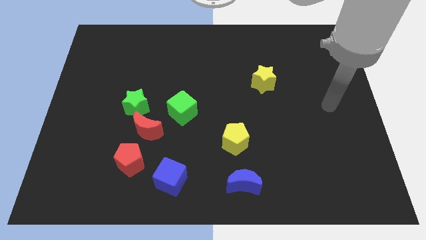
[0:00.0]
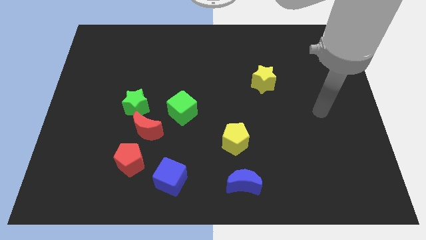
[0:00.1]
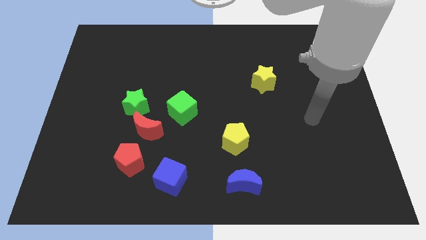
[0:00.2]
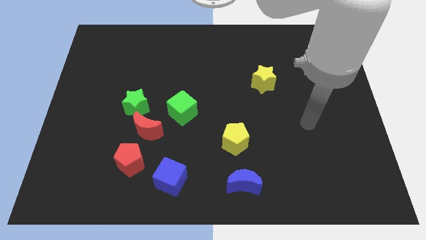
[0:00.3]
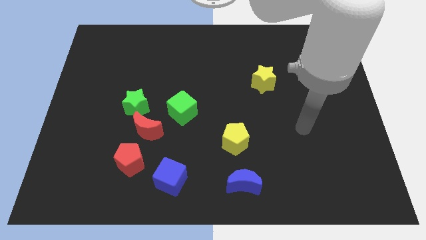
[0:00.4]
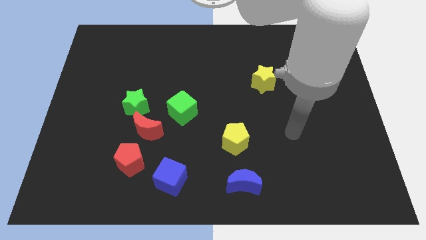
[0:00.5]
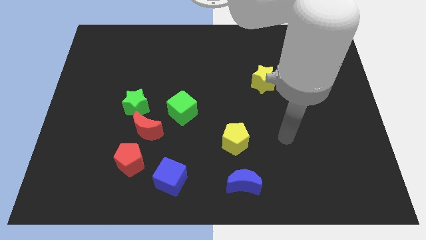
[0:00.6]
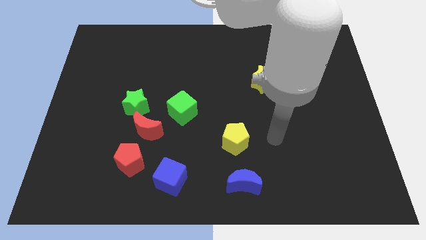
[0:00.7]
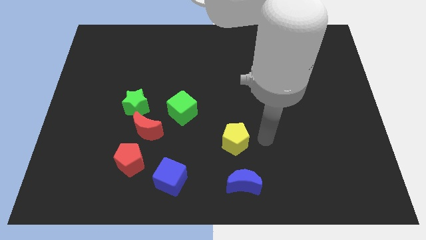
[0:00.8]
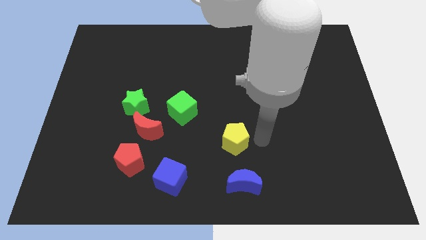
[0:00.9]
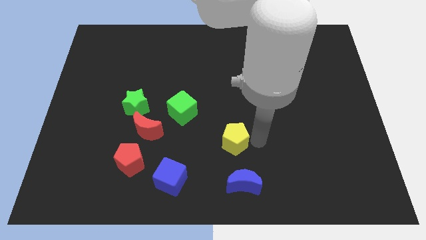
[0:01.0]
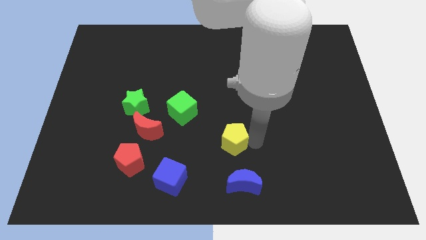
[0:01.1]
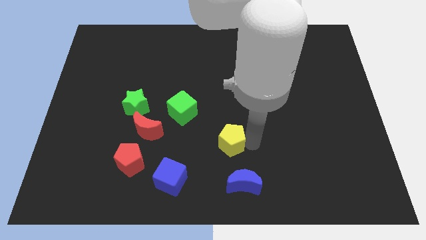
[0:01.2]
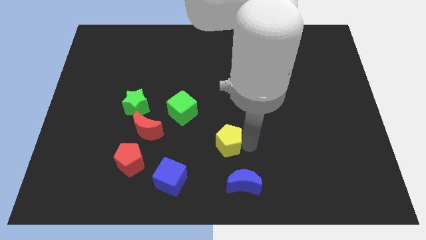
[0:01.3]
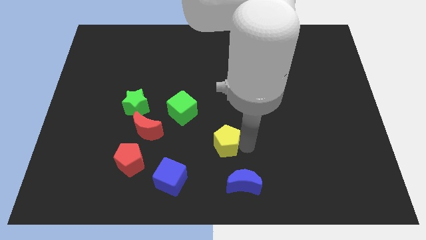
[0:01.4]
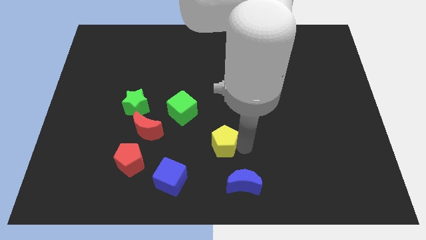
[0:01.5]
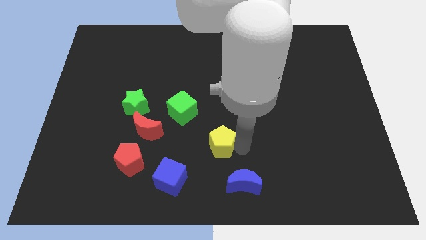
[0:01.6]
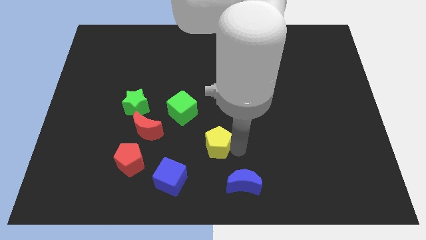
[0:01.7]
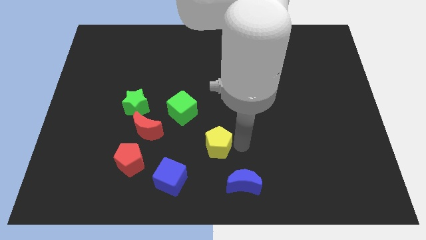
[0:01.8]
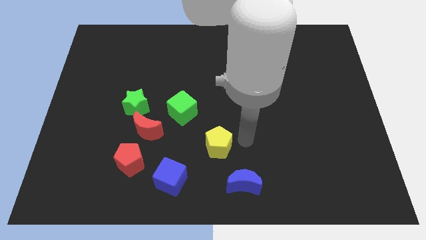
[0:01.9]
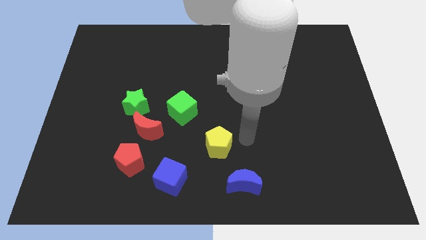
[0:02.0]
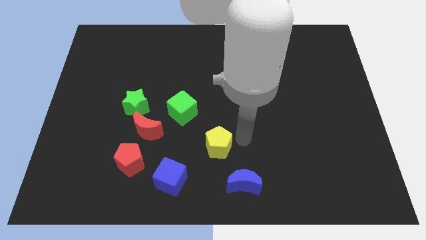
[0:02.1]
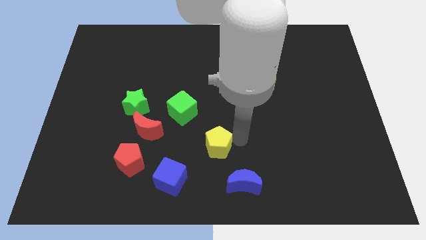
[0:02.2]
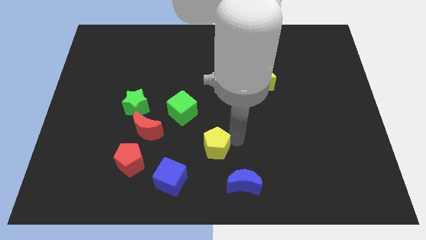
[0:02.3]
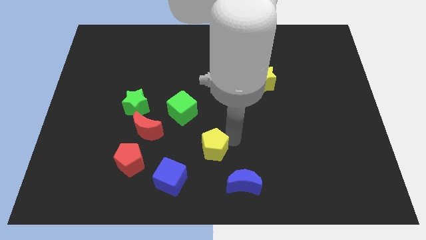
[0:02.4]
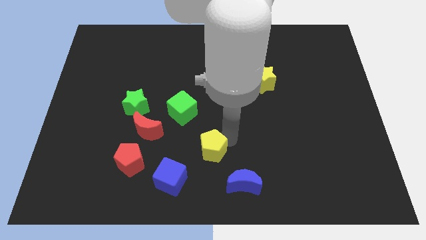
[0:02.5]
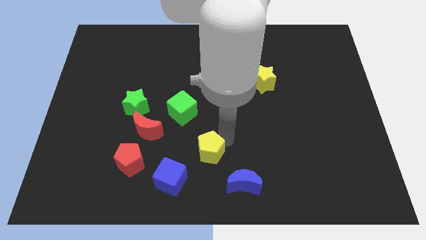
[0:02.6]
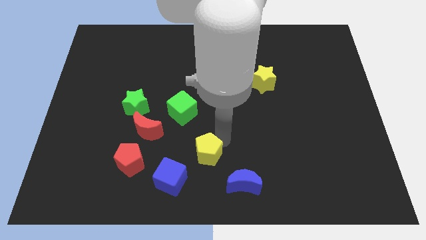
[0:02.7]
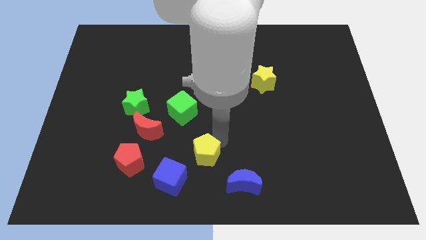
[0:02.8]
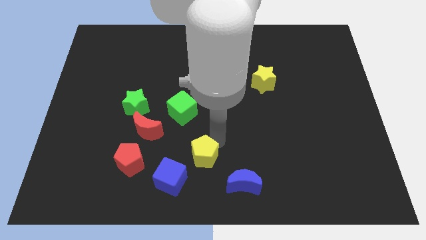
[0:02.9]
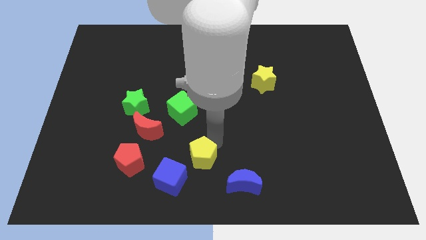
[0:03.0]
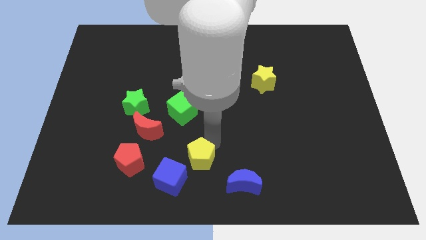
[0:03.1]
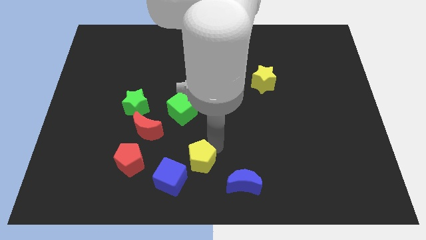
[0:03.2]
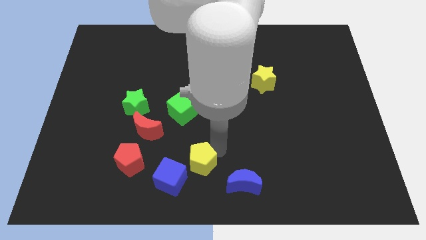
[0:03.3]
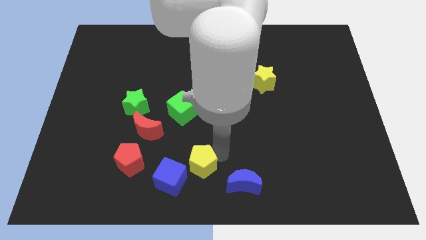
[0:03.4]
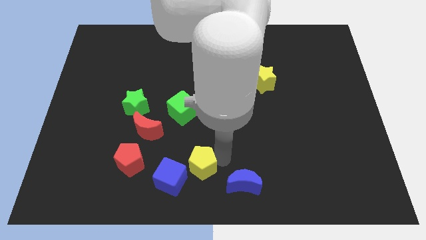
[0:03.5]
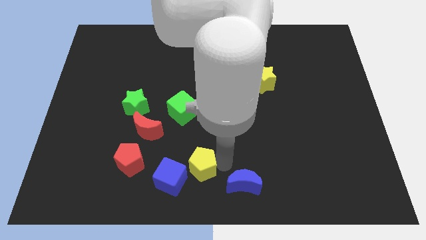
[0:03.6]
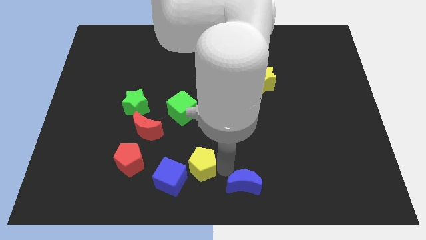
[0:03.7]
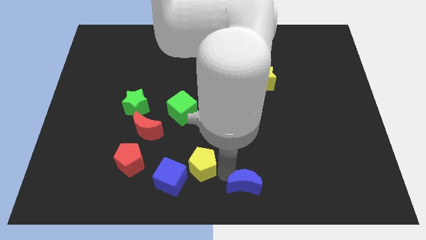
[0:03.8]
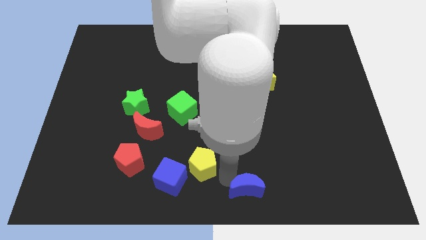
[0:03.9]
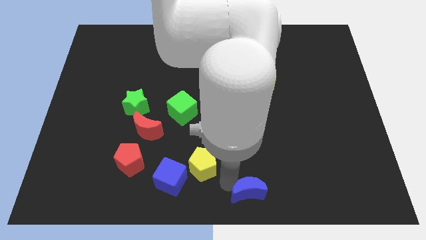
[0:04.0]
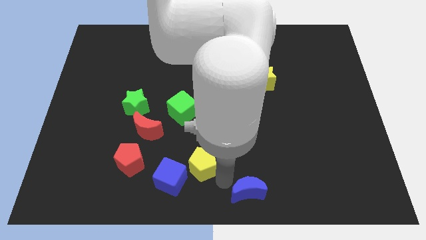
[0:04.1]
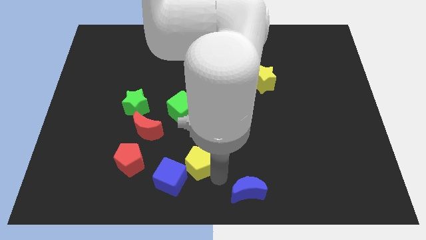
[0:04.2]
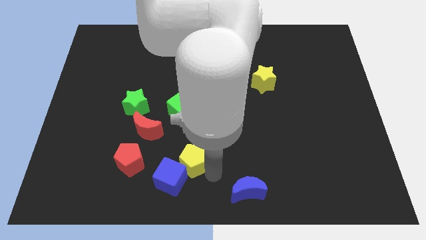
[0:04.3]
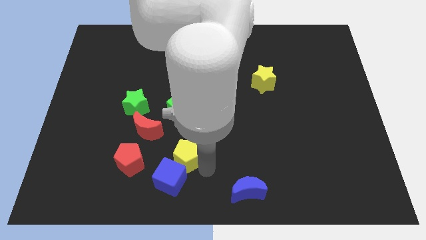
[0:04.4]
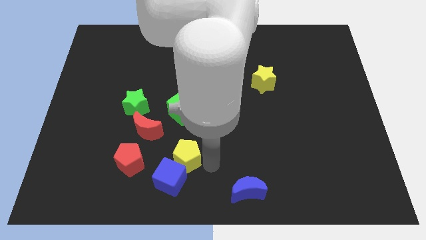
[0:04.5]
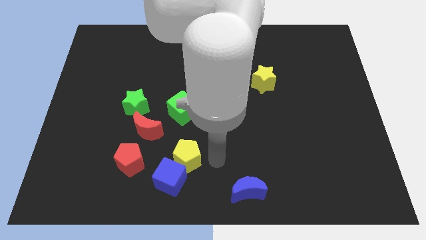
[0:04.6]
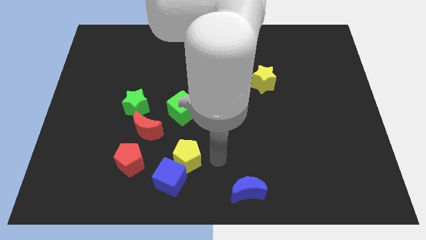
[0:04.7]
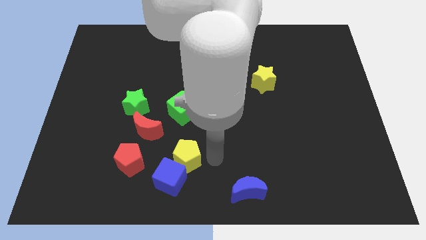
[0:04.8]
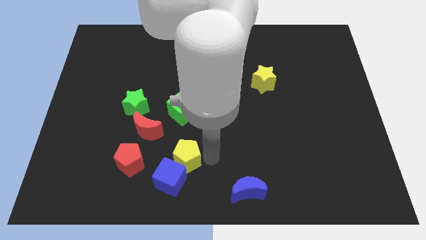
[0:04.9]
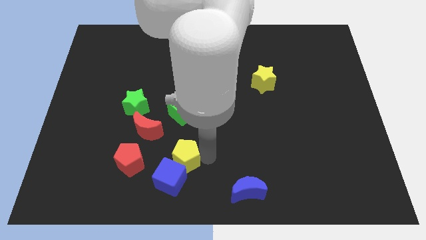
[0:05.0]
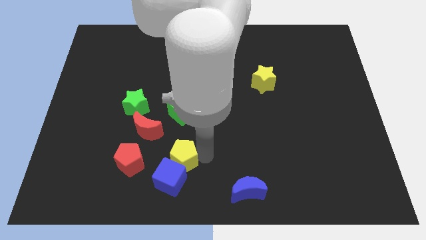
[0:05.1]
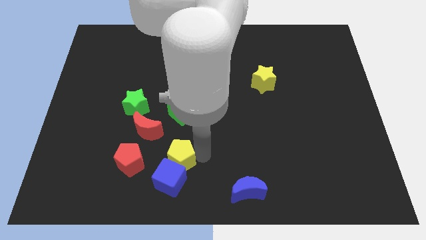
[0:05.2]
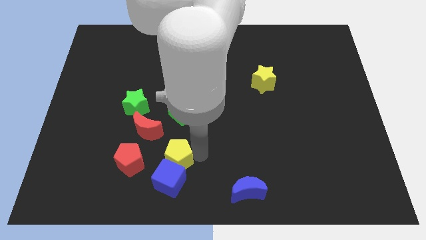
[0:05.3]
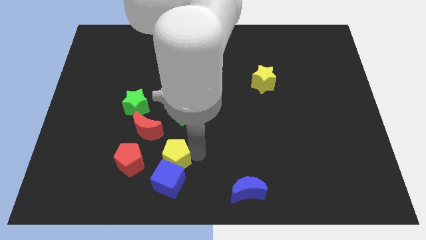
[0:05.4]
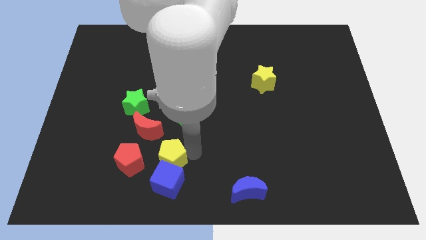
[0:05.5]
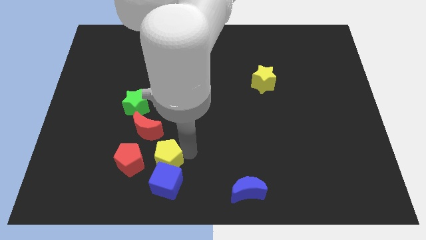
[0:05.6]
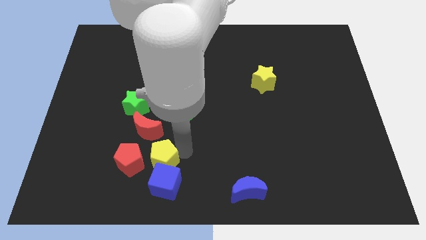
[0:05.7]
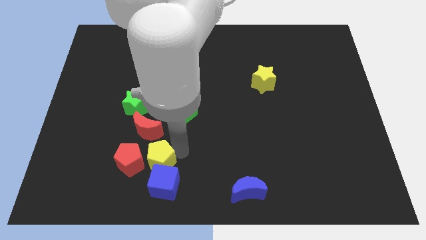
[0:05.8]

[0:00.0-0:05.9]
slide the yellow pentagon towards the red pentagon

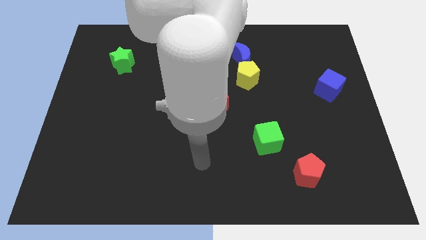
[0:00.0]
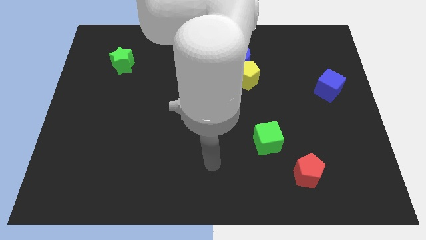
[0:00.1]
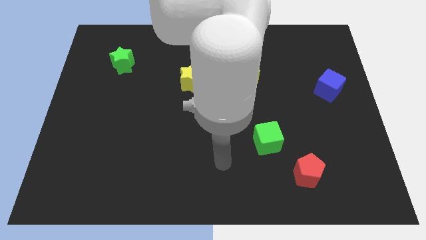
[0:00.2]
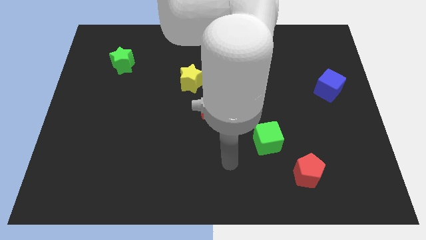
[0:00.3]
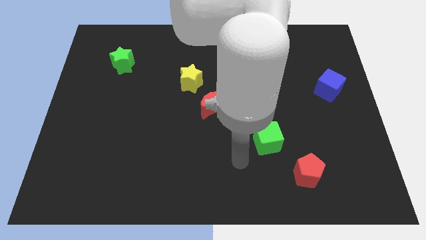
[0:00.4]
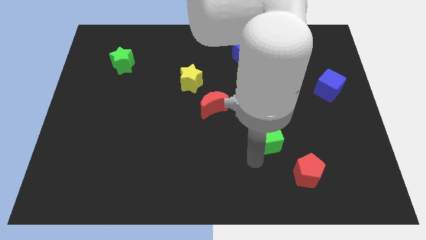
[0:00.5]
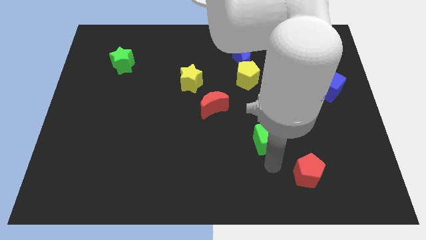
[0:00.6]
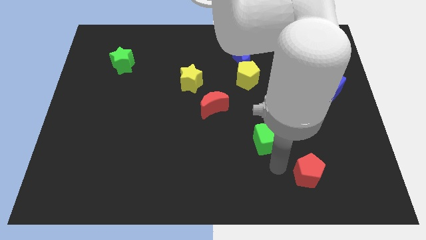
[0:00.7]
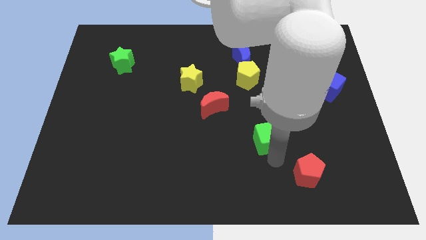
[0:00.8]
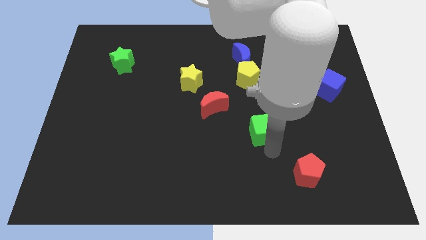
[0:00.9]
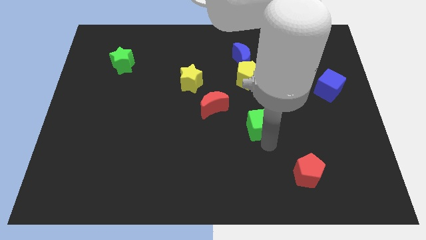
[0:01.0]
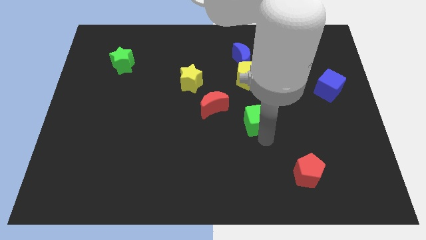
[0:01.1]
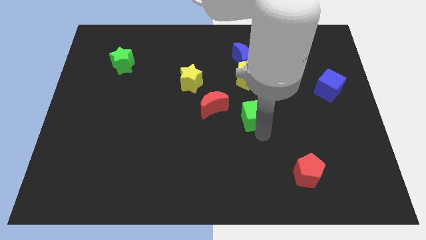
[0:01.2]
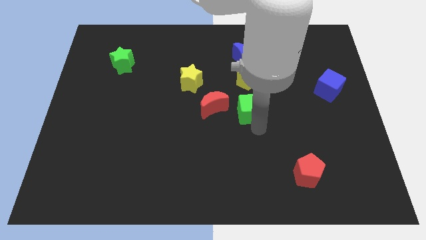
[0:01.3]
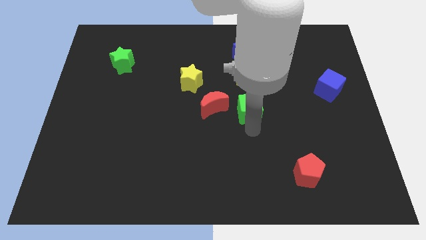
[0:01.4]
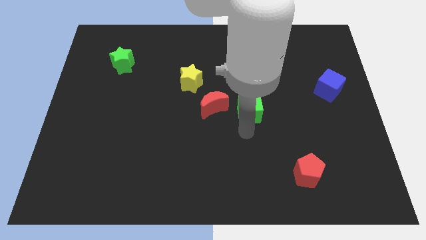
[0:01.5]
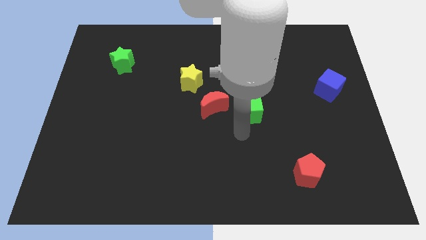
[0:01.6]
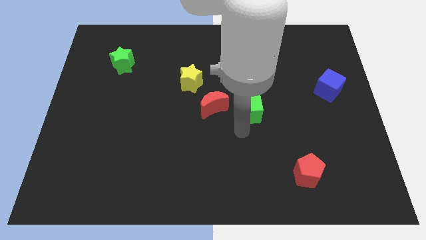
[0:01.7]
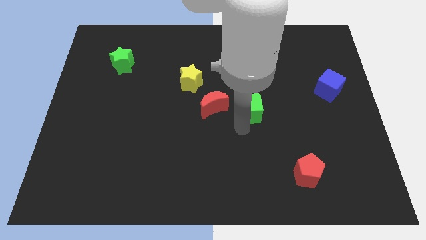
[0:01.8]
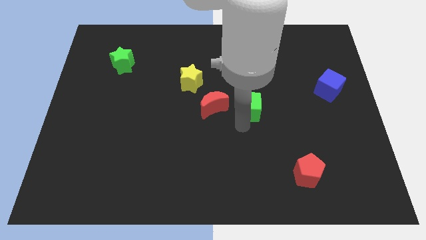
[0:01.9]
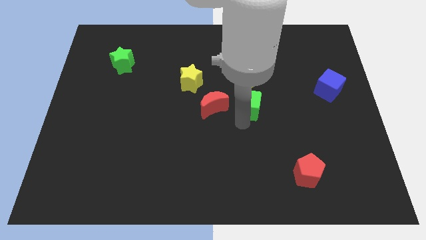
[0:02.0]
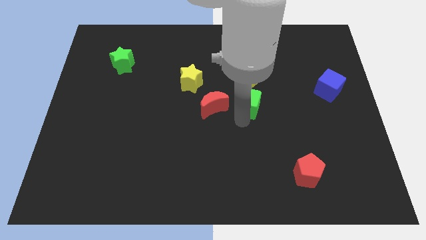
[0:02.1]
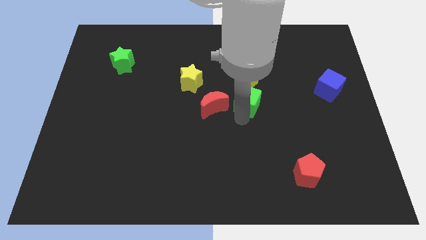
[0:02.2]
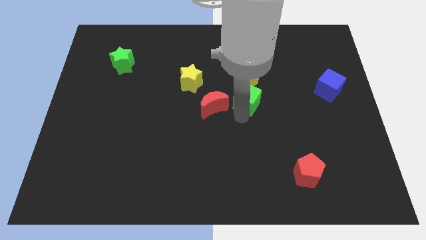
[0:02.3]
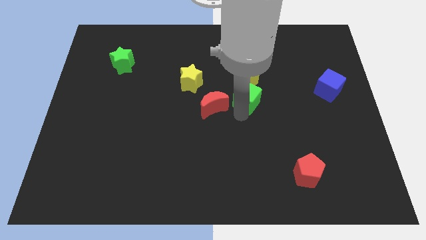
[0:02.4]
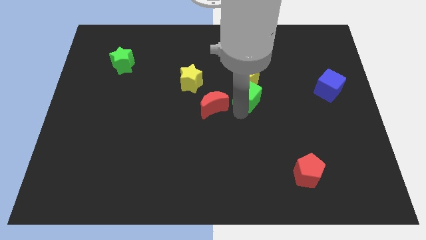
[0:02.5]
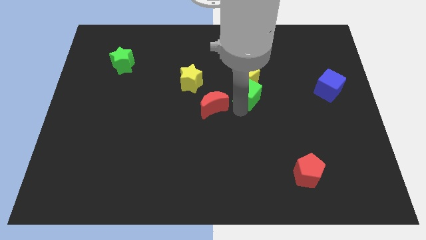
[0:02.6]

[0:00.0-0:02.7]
slide the green cube towards the yellow pentagon
